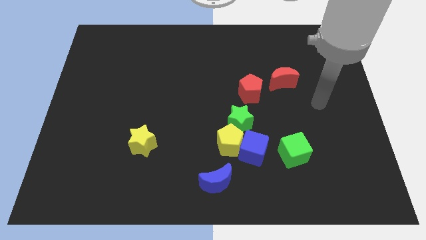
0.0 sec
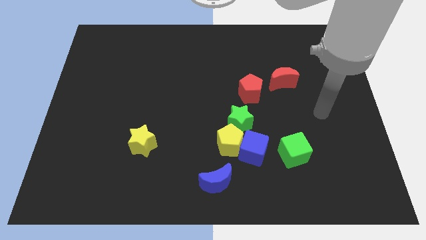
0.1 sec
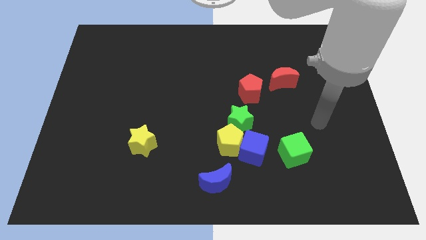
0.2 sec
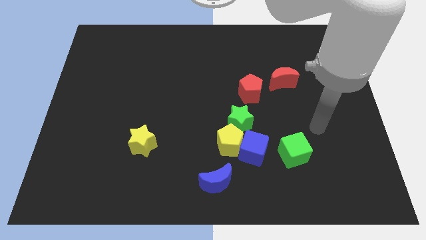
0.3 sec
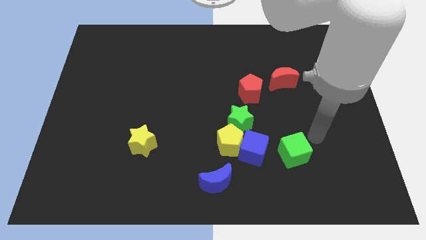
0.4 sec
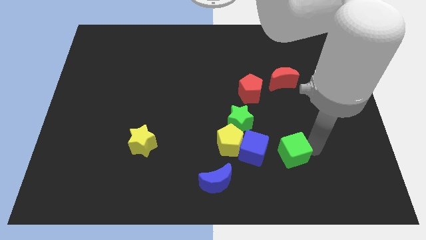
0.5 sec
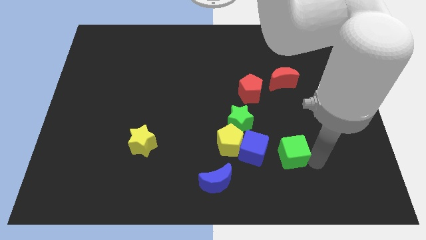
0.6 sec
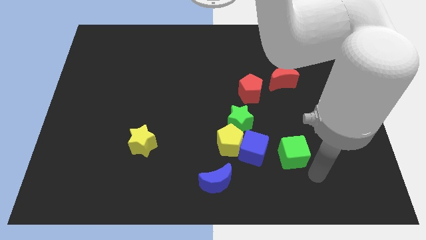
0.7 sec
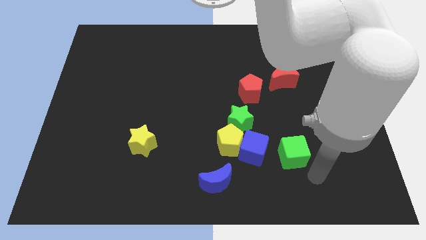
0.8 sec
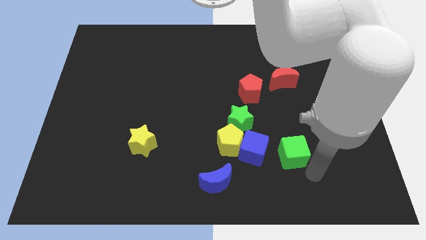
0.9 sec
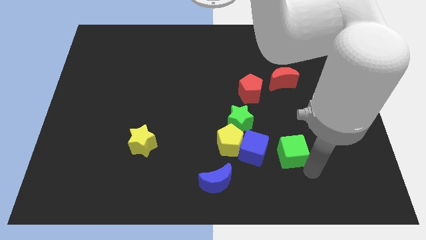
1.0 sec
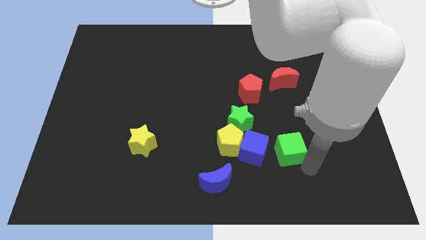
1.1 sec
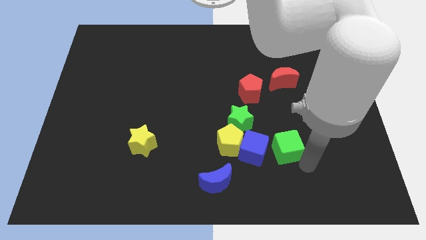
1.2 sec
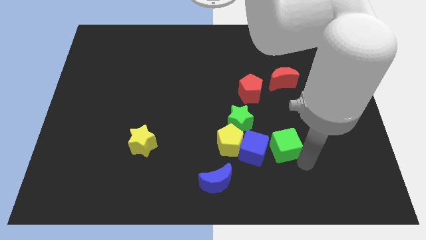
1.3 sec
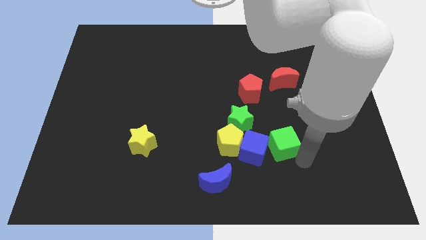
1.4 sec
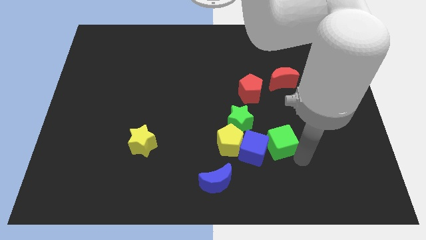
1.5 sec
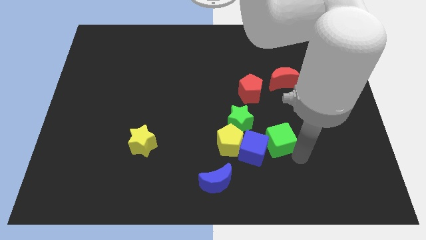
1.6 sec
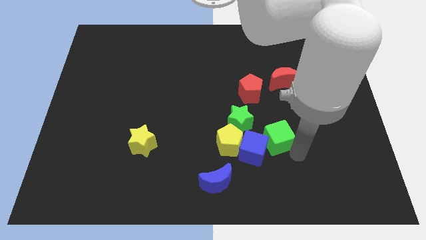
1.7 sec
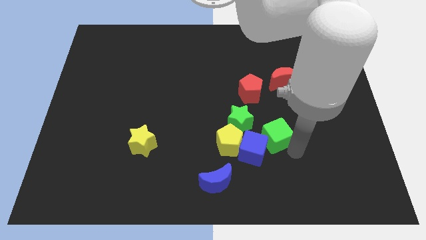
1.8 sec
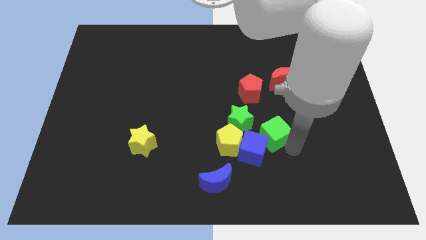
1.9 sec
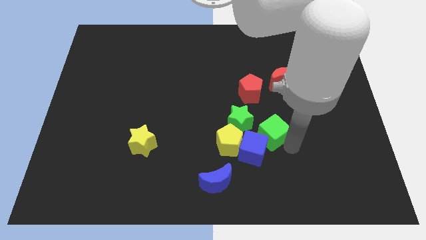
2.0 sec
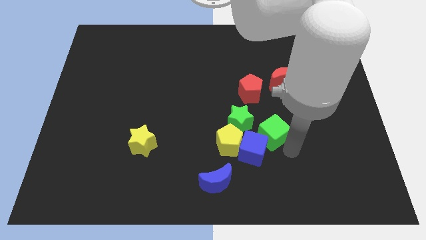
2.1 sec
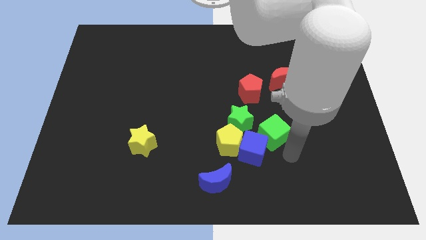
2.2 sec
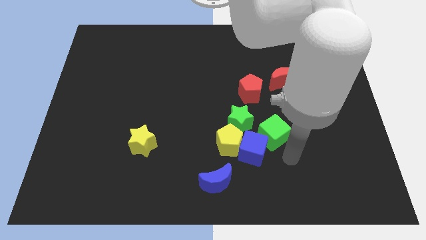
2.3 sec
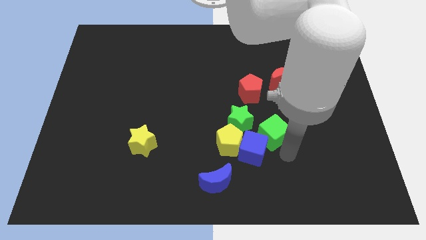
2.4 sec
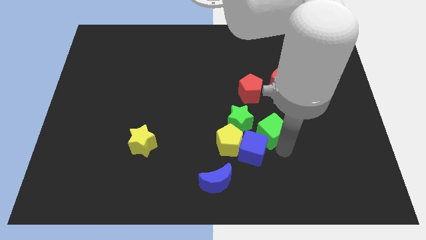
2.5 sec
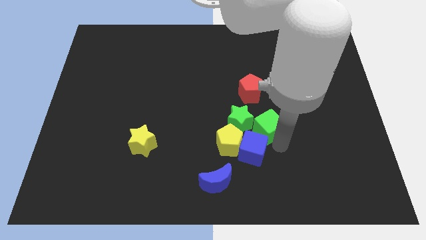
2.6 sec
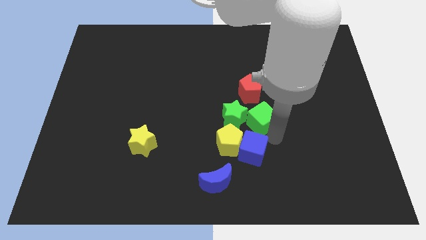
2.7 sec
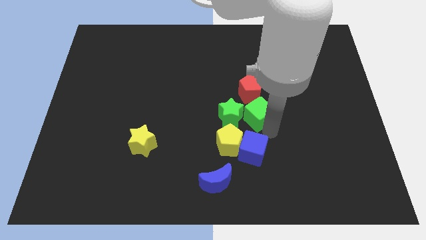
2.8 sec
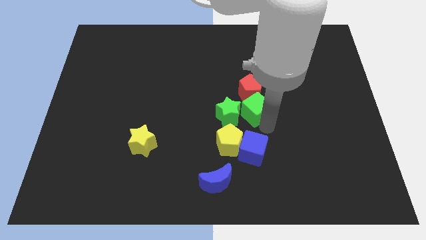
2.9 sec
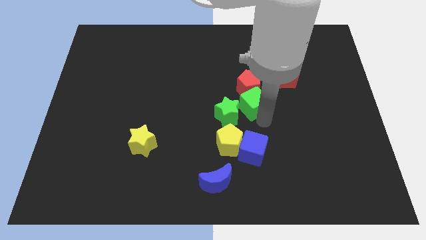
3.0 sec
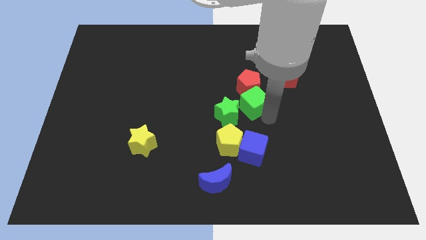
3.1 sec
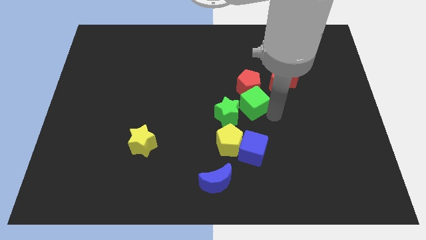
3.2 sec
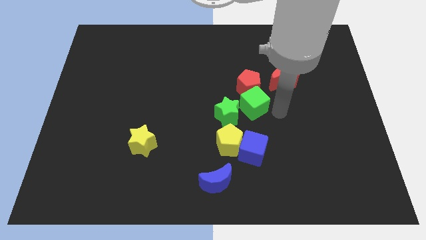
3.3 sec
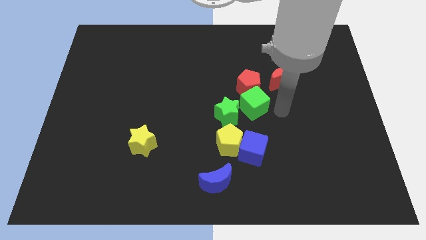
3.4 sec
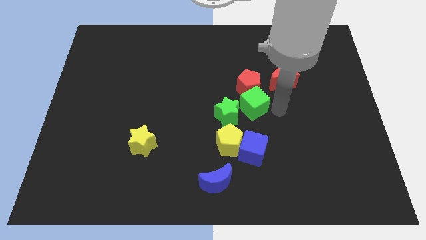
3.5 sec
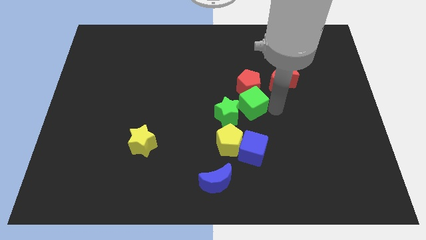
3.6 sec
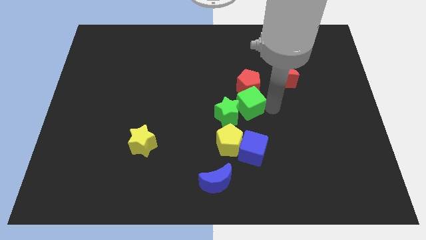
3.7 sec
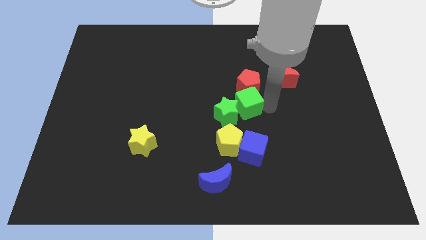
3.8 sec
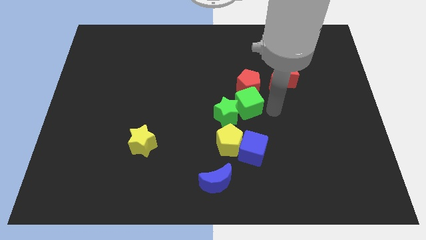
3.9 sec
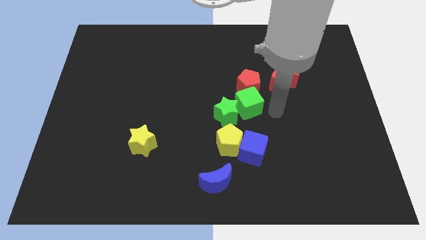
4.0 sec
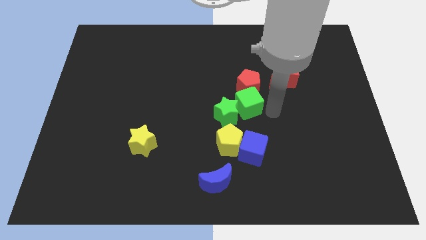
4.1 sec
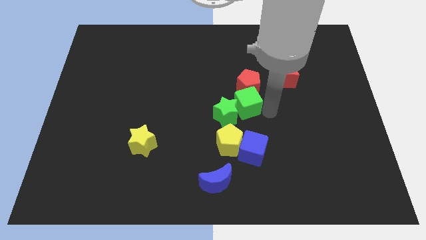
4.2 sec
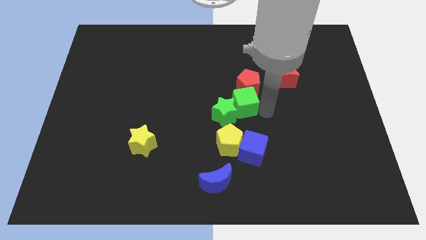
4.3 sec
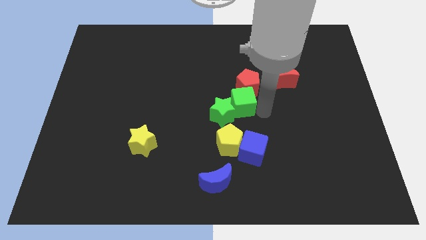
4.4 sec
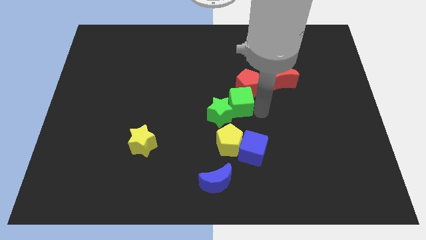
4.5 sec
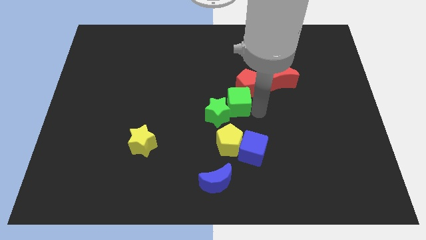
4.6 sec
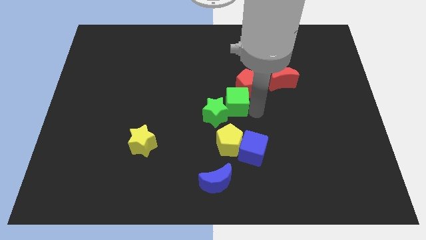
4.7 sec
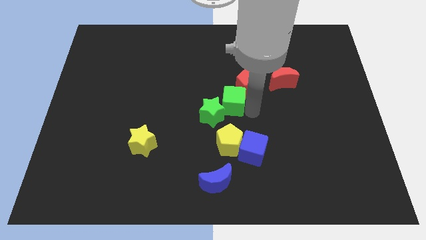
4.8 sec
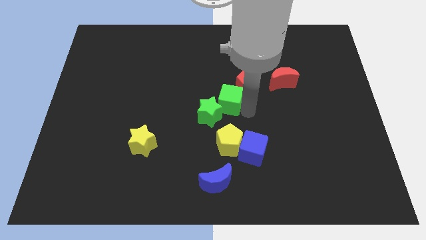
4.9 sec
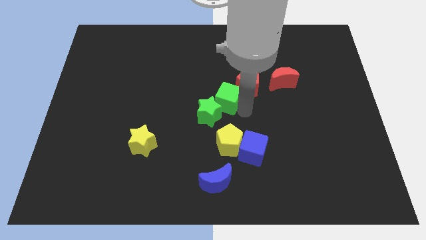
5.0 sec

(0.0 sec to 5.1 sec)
move the green cube up and to the left

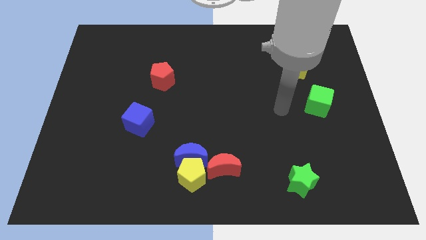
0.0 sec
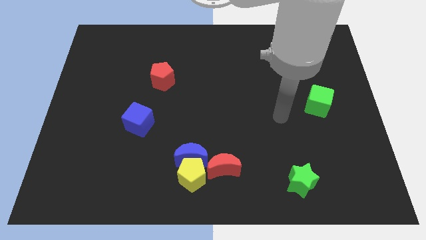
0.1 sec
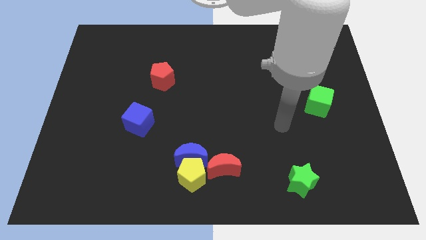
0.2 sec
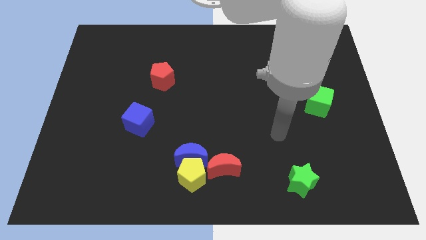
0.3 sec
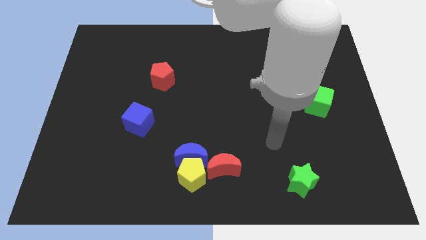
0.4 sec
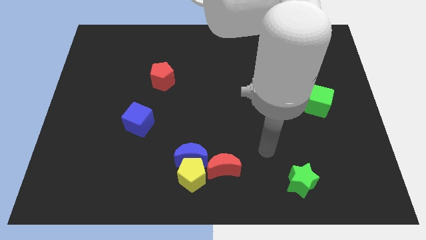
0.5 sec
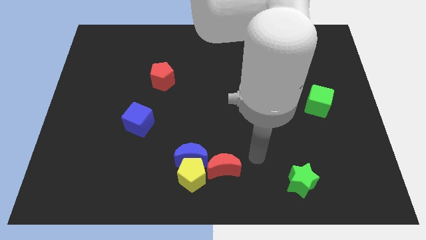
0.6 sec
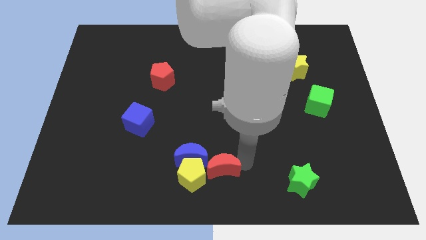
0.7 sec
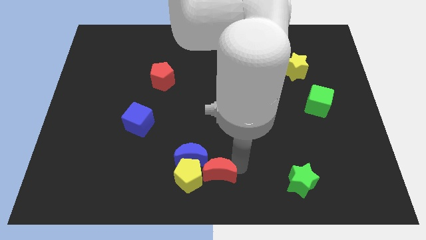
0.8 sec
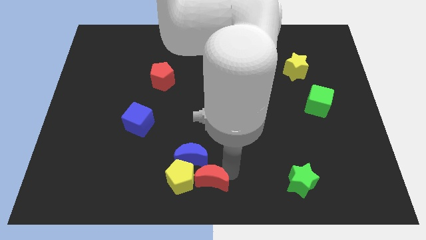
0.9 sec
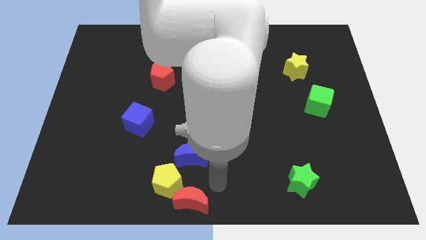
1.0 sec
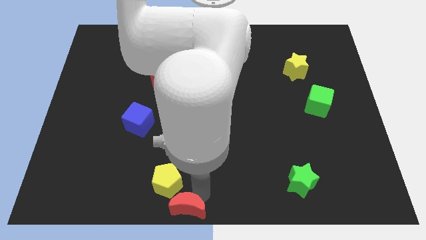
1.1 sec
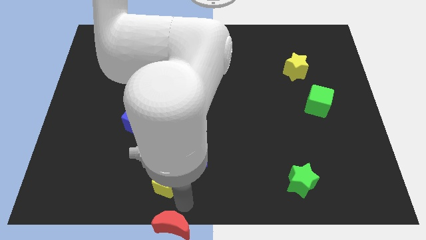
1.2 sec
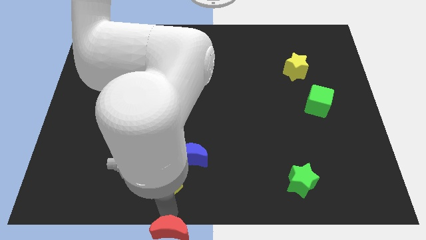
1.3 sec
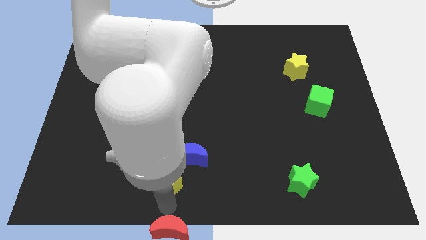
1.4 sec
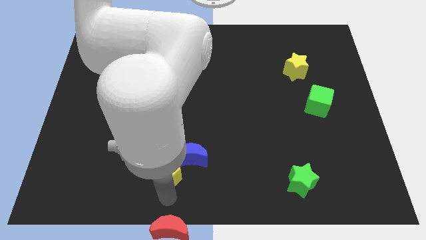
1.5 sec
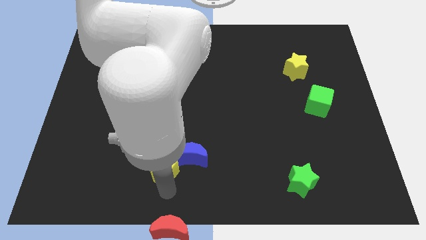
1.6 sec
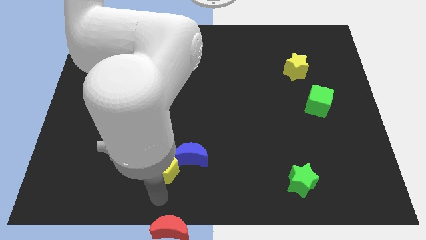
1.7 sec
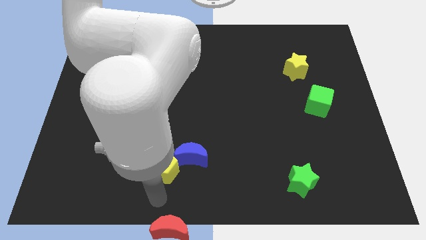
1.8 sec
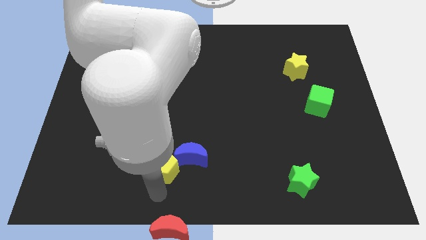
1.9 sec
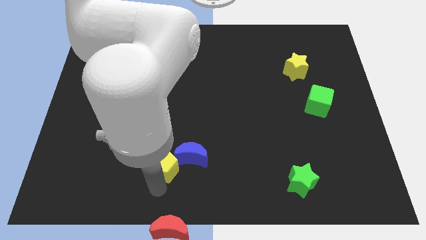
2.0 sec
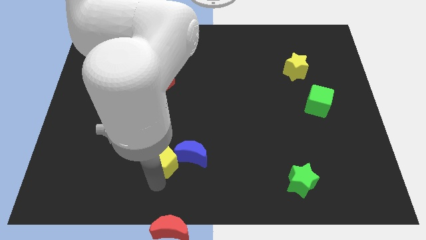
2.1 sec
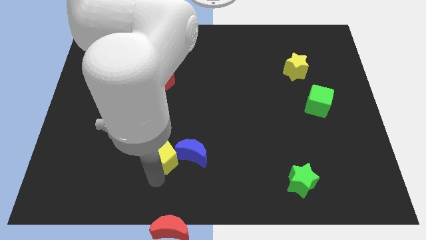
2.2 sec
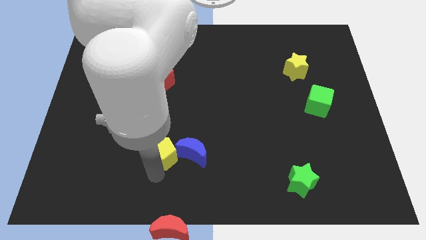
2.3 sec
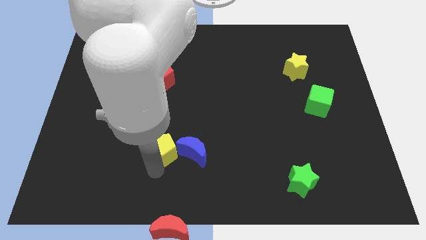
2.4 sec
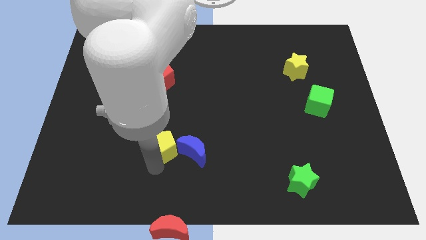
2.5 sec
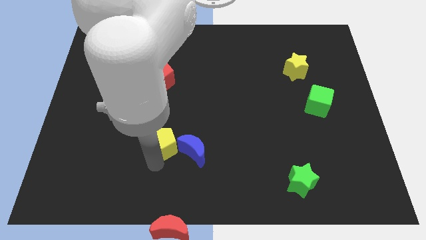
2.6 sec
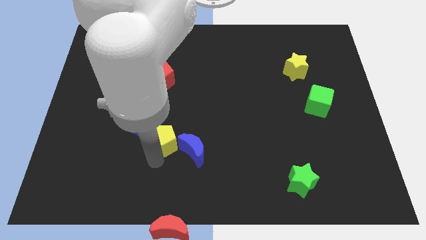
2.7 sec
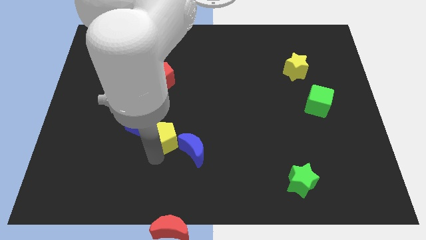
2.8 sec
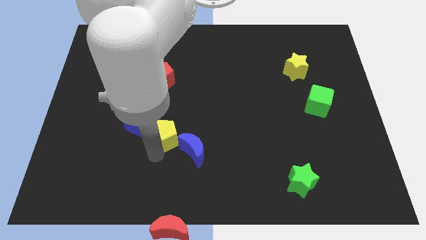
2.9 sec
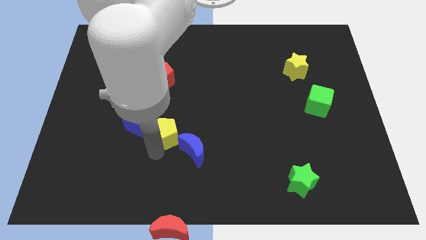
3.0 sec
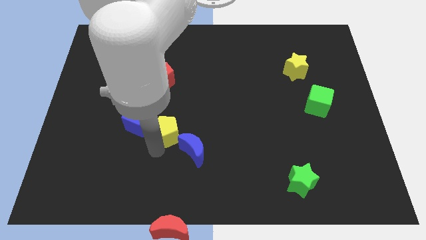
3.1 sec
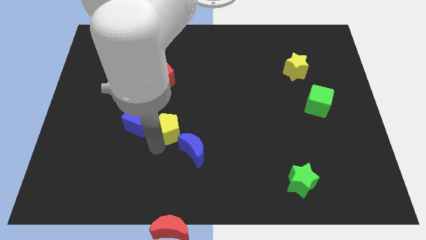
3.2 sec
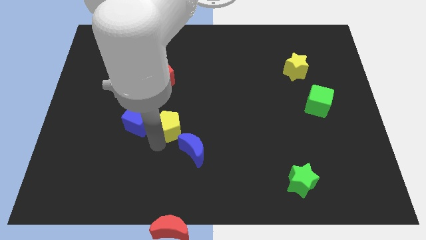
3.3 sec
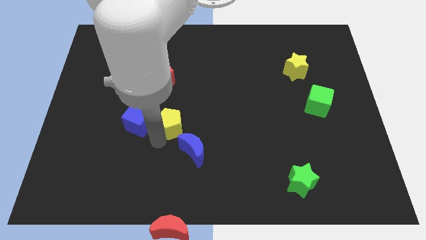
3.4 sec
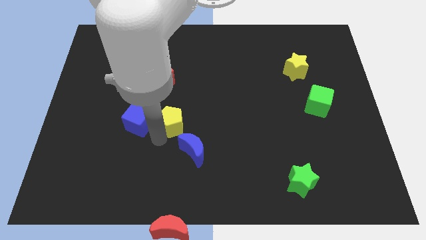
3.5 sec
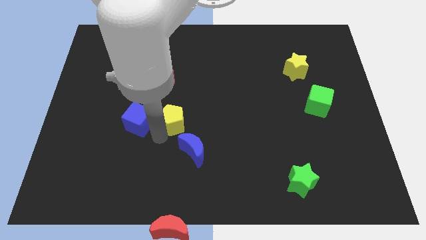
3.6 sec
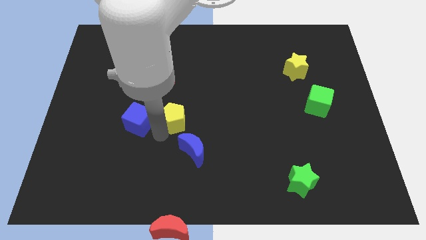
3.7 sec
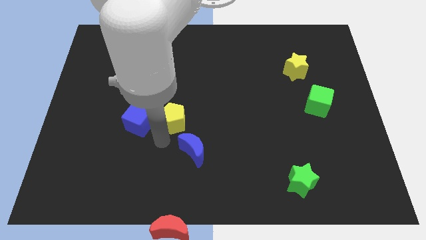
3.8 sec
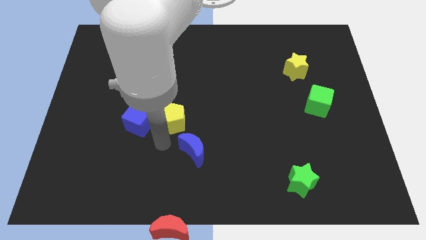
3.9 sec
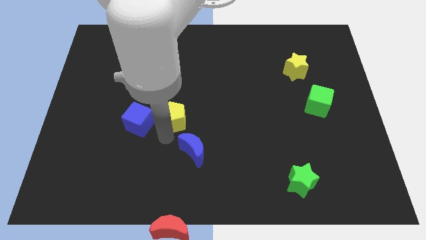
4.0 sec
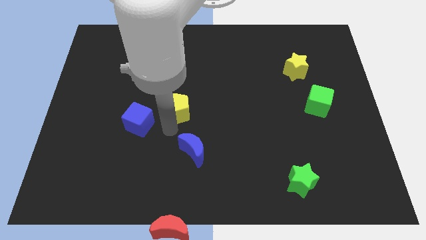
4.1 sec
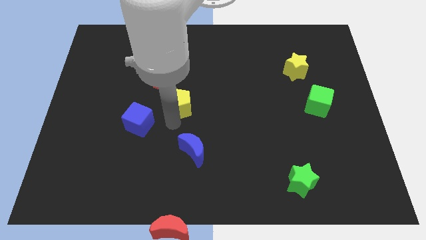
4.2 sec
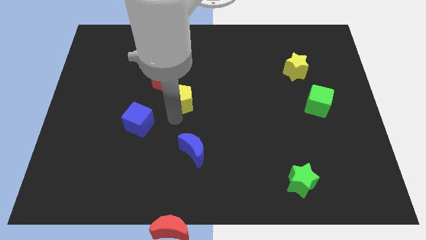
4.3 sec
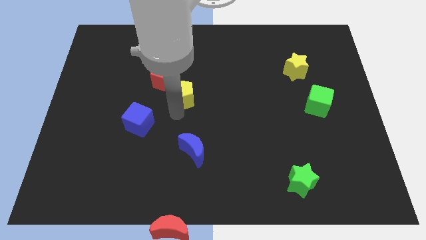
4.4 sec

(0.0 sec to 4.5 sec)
move the yellow pentagon upwards
